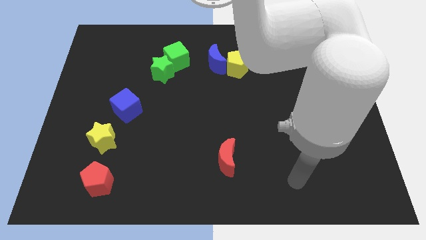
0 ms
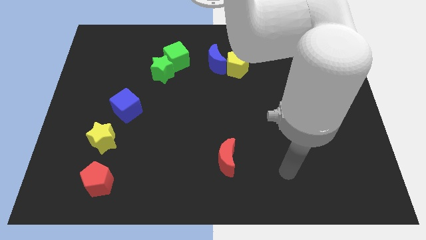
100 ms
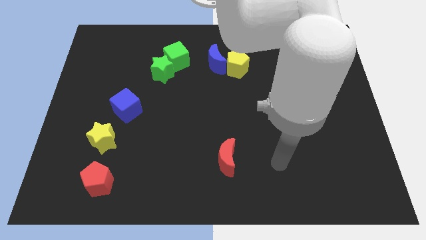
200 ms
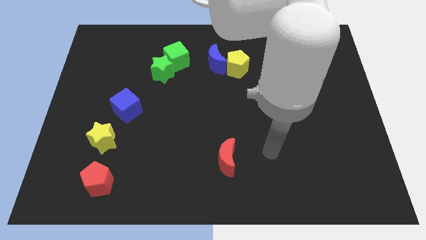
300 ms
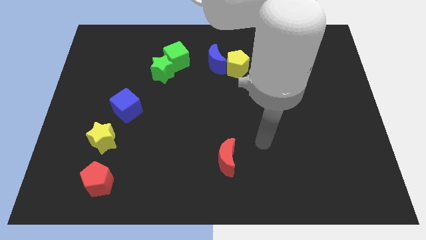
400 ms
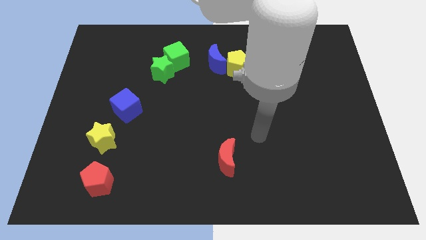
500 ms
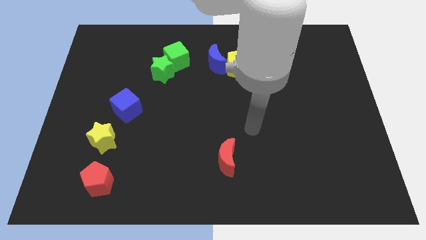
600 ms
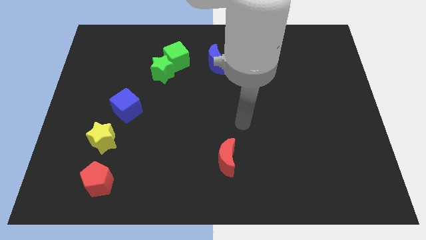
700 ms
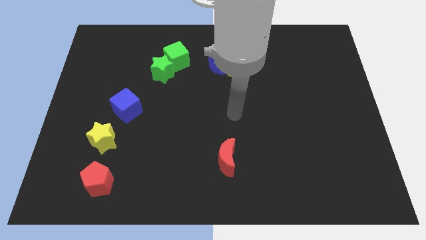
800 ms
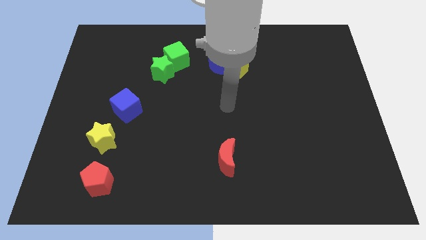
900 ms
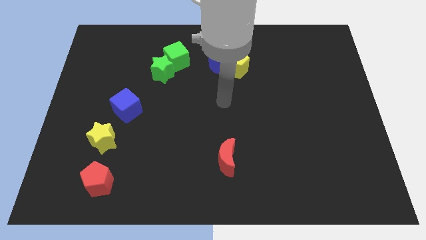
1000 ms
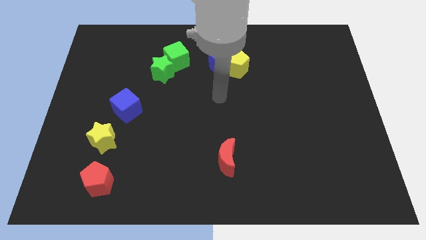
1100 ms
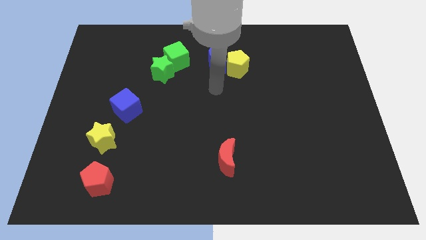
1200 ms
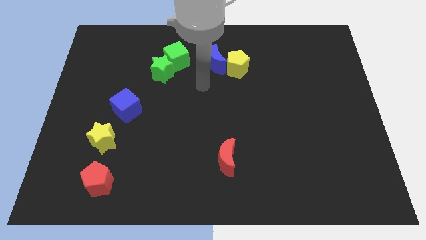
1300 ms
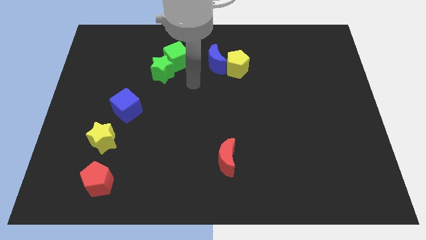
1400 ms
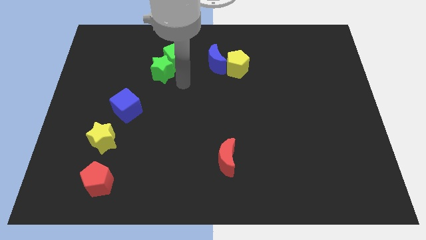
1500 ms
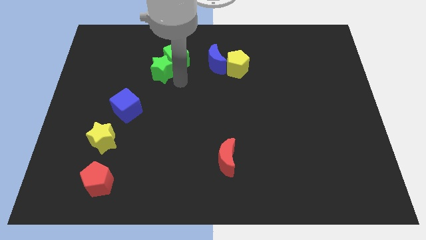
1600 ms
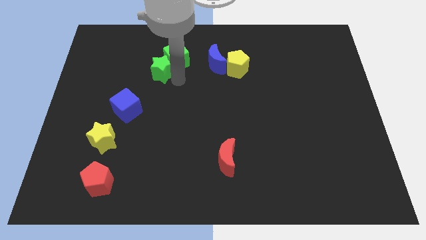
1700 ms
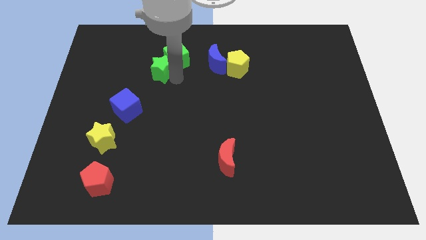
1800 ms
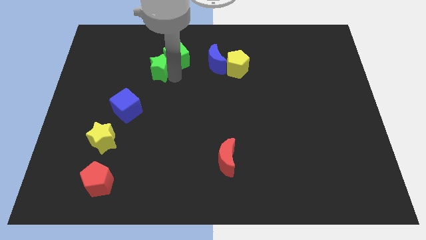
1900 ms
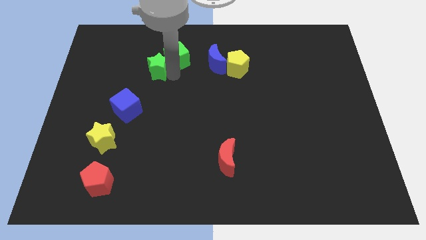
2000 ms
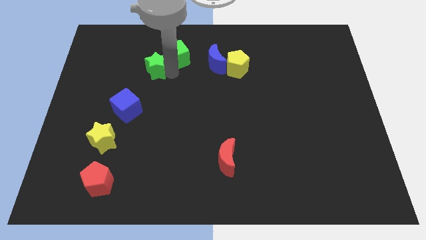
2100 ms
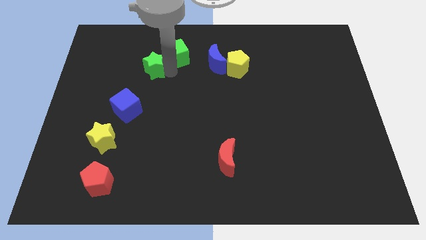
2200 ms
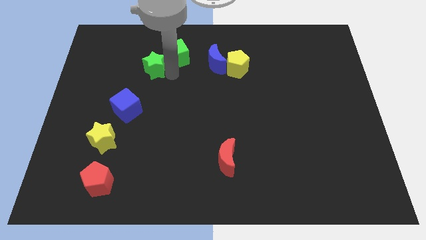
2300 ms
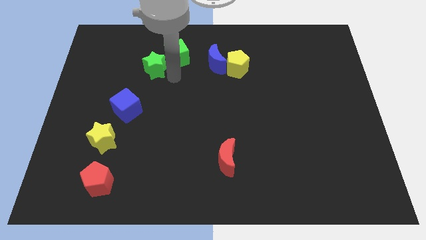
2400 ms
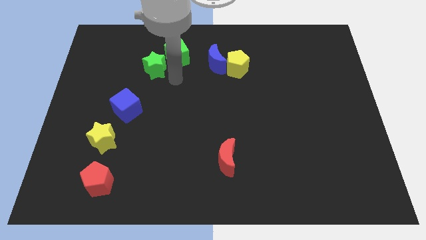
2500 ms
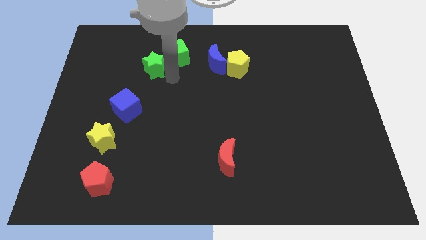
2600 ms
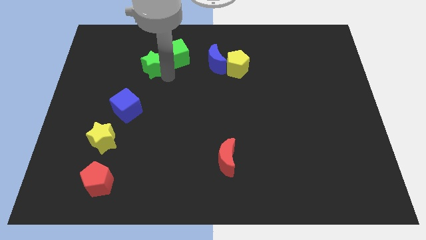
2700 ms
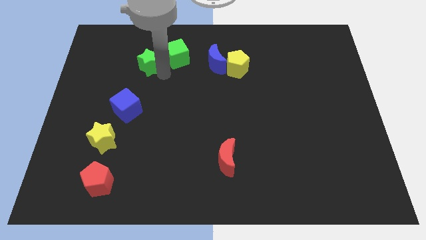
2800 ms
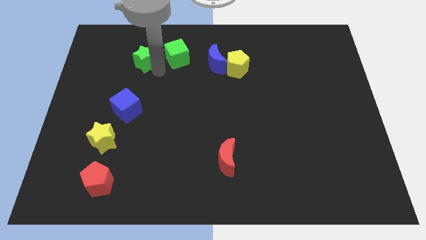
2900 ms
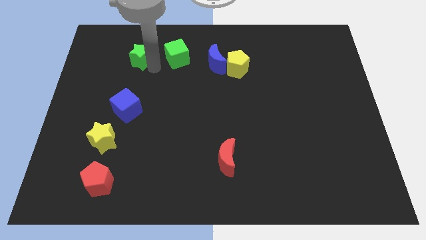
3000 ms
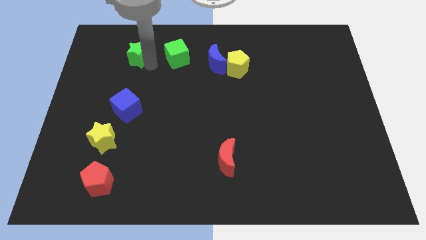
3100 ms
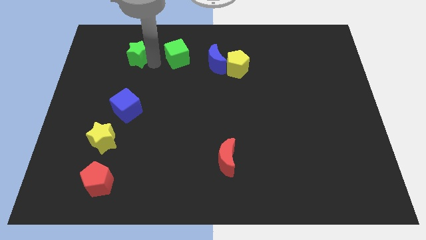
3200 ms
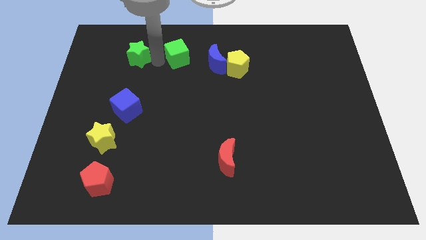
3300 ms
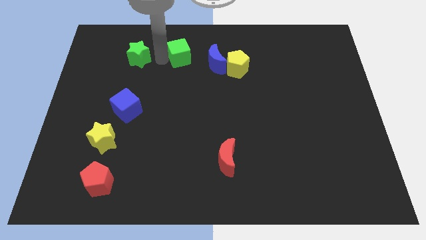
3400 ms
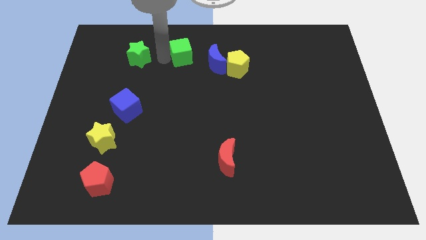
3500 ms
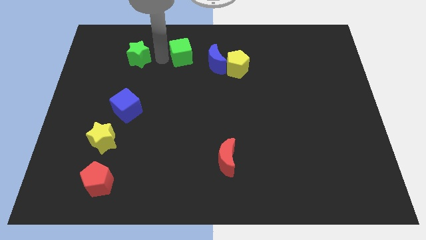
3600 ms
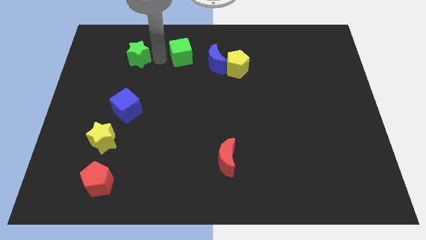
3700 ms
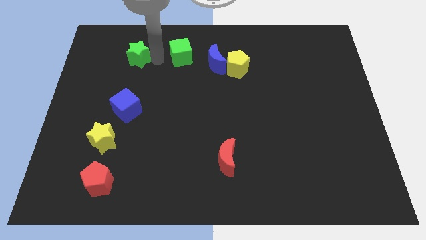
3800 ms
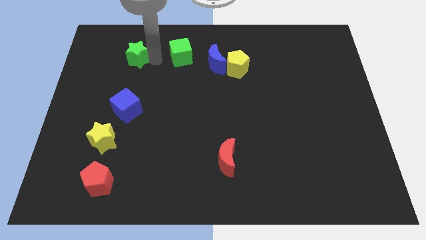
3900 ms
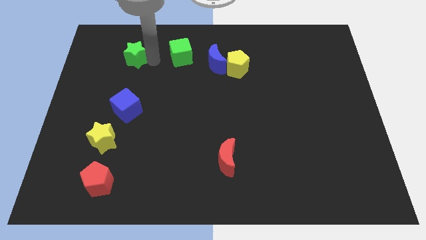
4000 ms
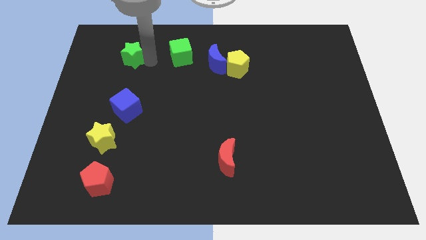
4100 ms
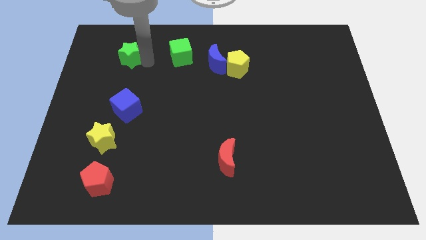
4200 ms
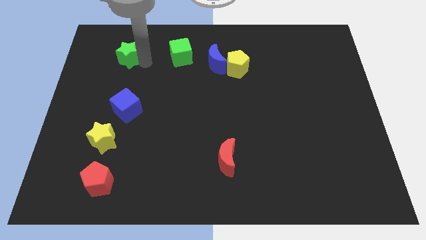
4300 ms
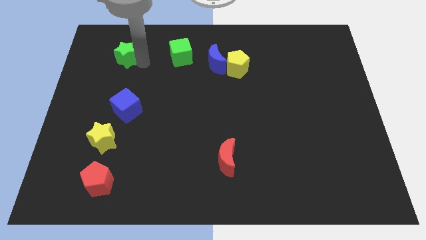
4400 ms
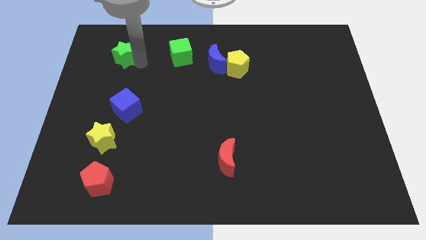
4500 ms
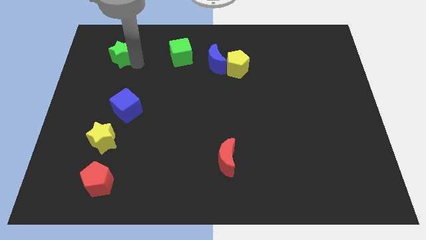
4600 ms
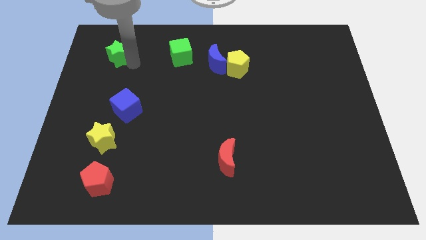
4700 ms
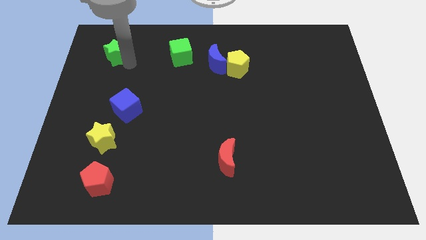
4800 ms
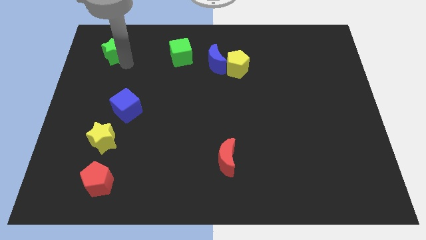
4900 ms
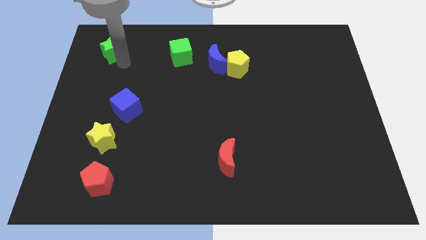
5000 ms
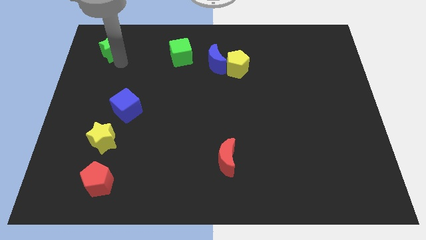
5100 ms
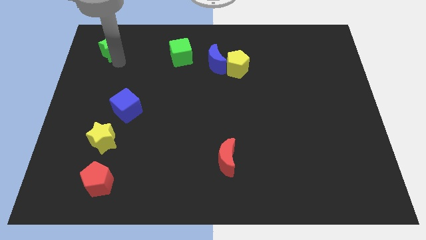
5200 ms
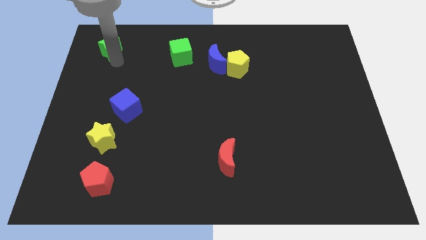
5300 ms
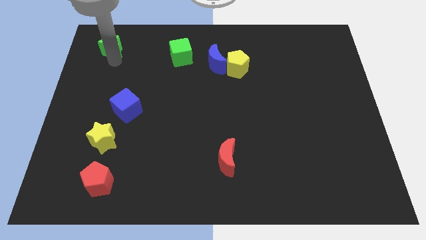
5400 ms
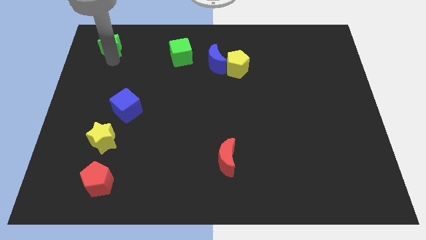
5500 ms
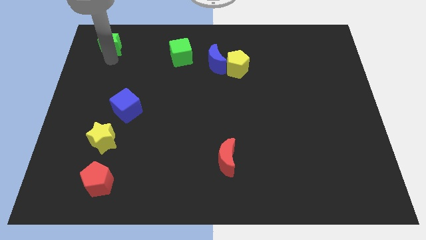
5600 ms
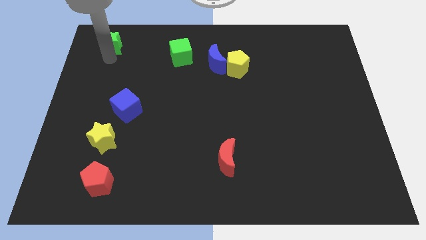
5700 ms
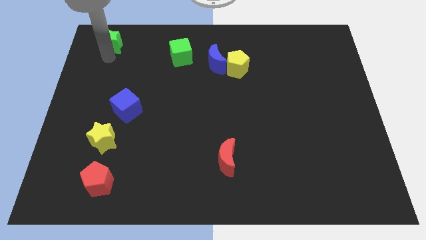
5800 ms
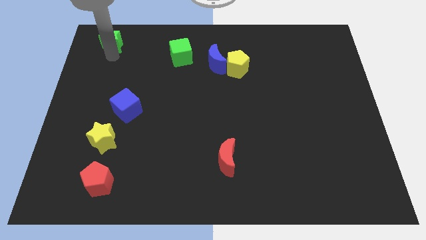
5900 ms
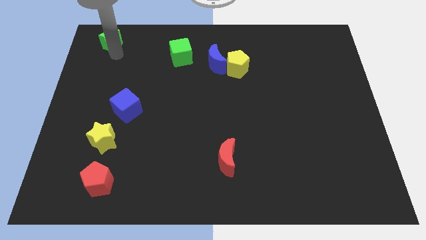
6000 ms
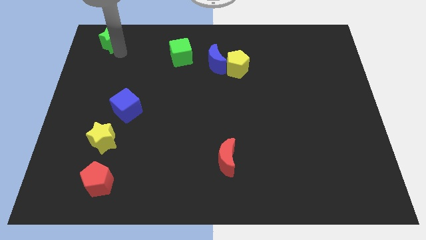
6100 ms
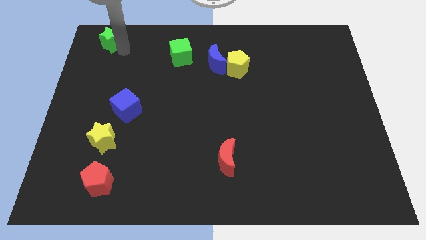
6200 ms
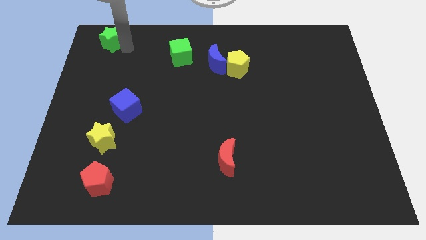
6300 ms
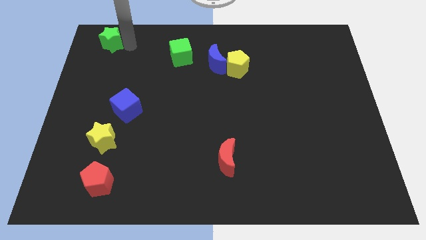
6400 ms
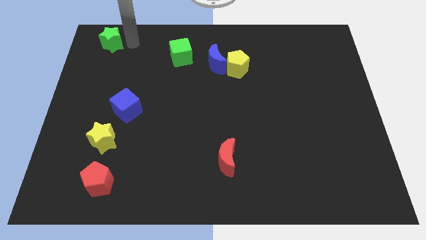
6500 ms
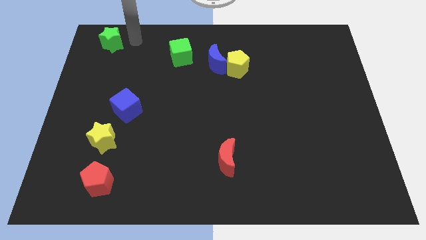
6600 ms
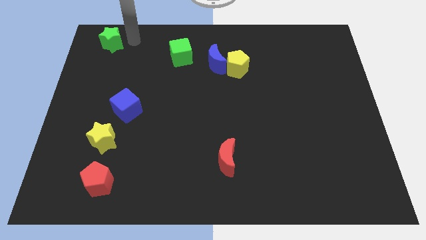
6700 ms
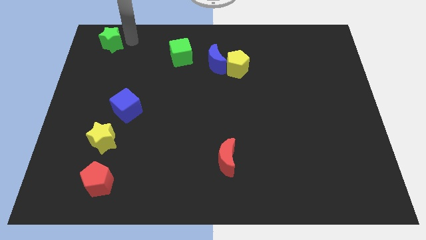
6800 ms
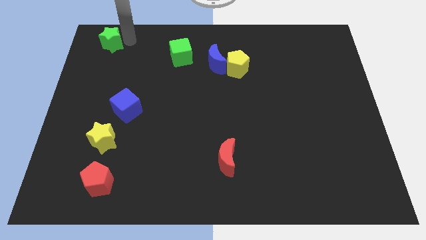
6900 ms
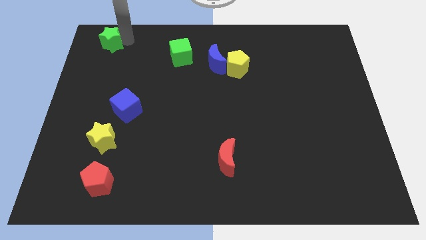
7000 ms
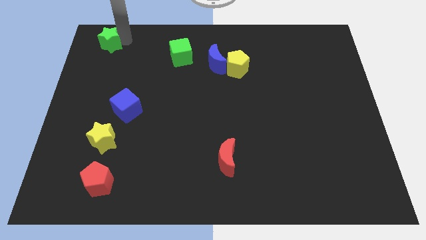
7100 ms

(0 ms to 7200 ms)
push the green star to the top left corner
